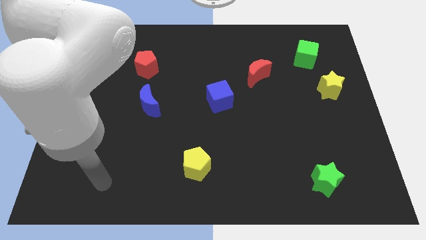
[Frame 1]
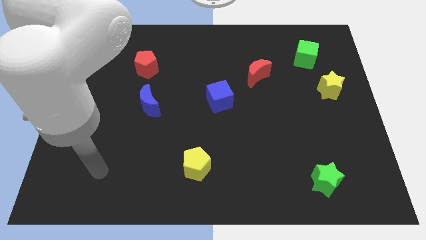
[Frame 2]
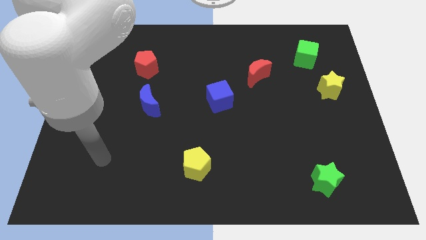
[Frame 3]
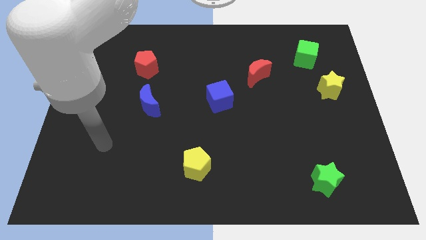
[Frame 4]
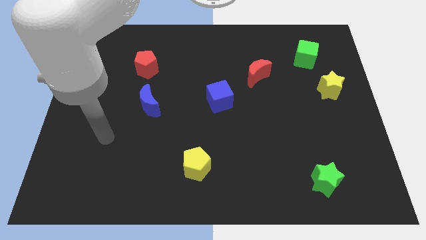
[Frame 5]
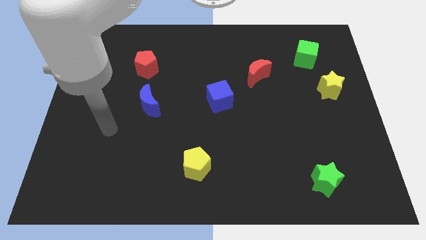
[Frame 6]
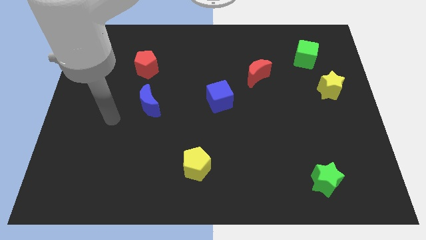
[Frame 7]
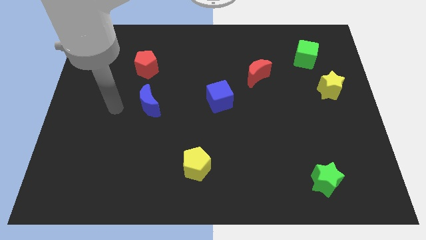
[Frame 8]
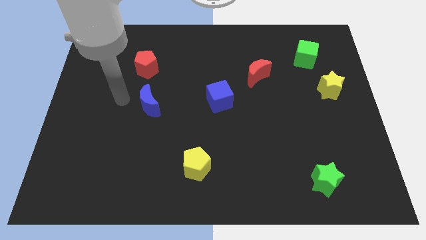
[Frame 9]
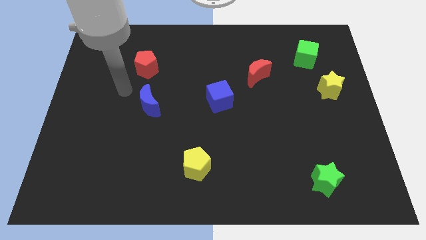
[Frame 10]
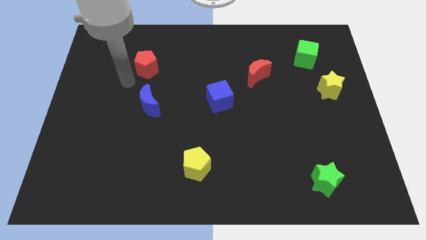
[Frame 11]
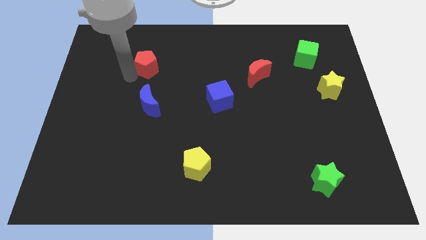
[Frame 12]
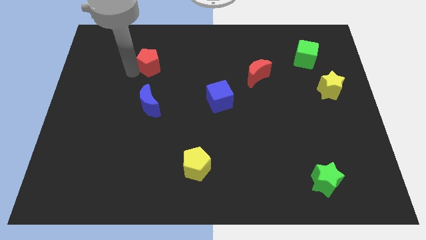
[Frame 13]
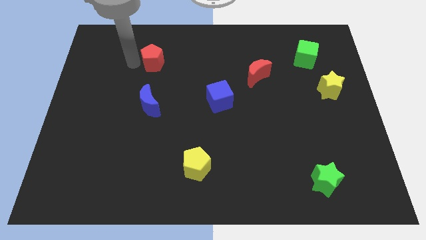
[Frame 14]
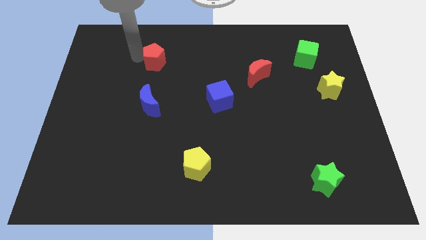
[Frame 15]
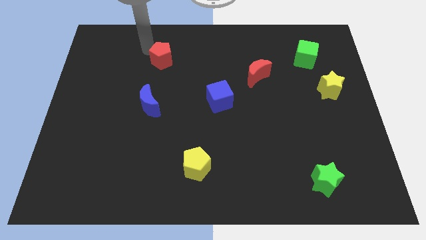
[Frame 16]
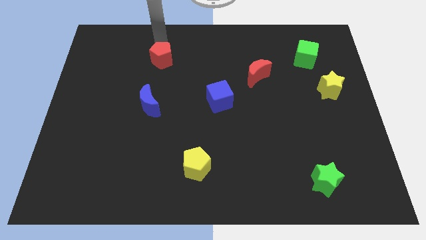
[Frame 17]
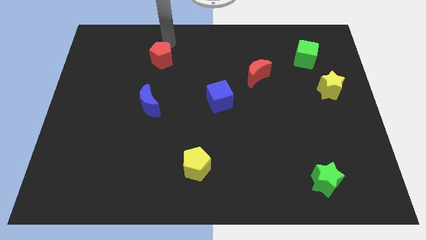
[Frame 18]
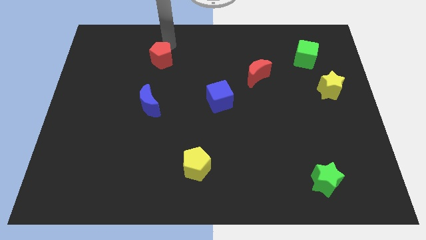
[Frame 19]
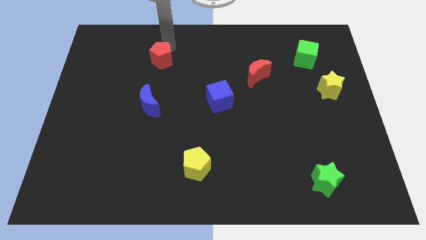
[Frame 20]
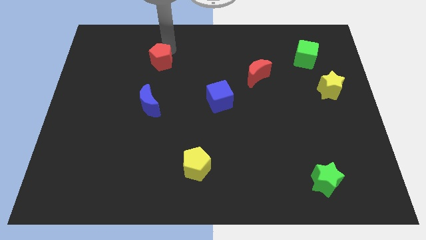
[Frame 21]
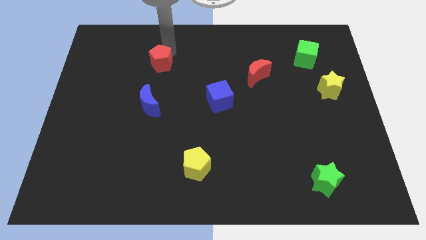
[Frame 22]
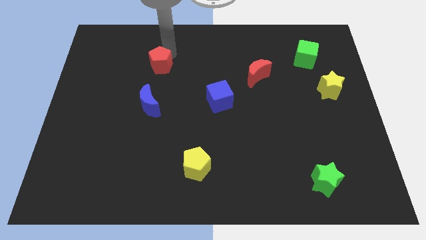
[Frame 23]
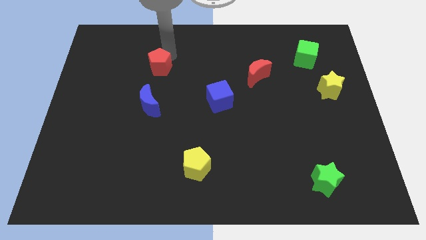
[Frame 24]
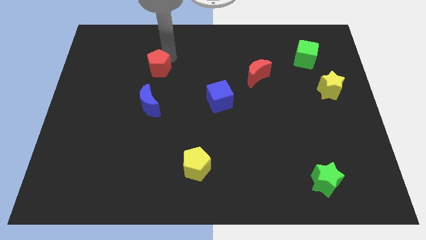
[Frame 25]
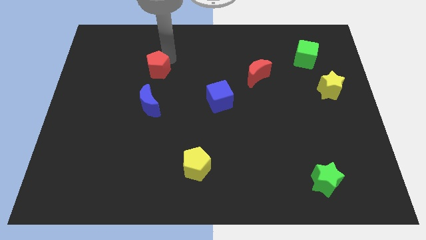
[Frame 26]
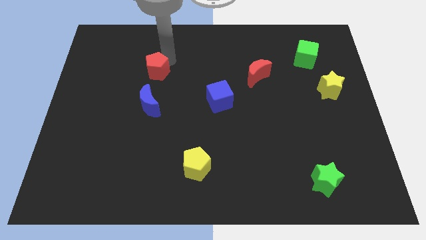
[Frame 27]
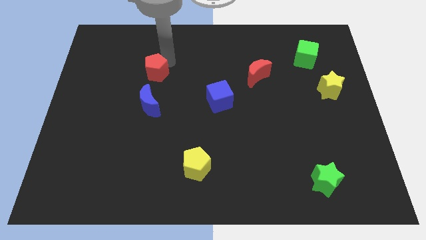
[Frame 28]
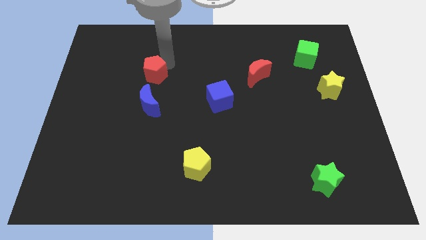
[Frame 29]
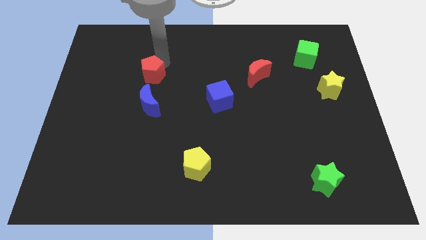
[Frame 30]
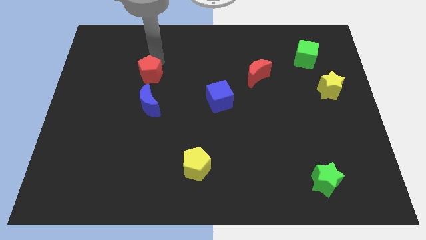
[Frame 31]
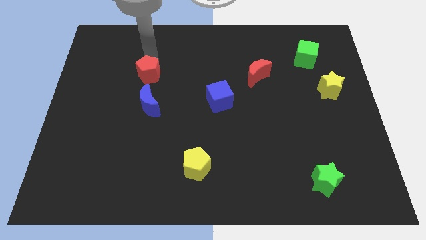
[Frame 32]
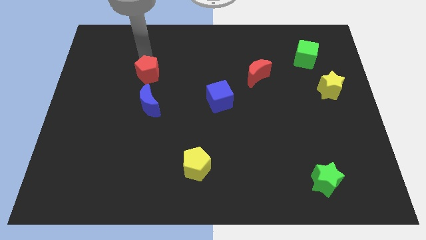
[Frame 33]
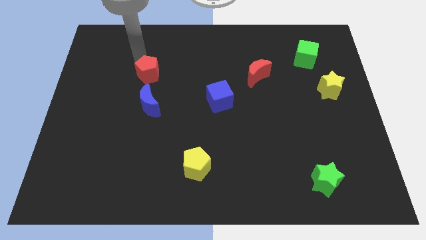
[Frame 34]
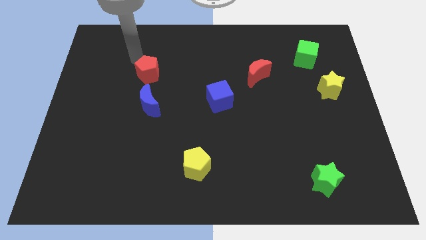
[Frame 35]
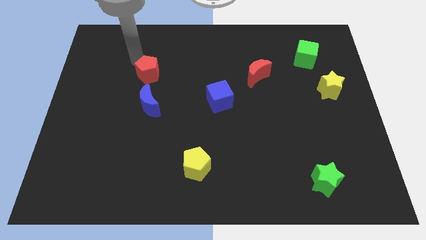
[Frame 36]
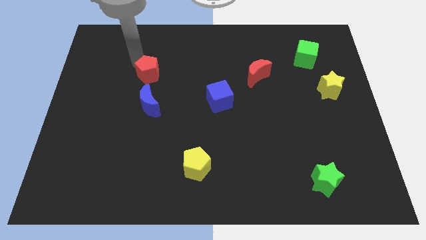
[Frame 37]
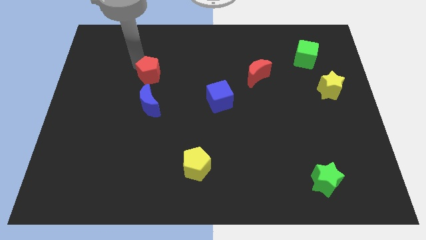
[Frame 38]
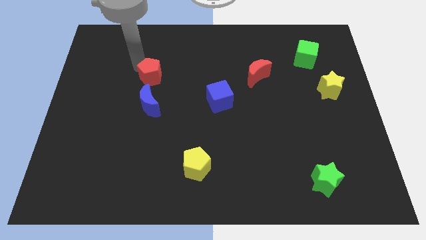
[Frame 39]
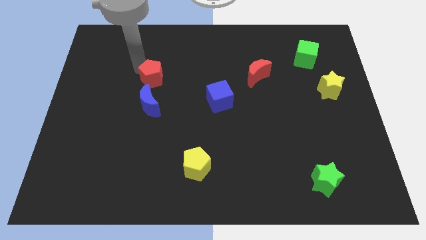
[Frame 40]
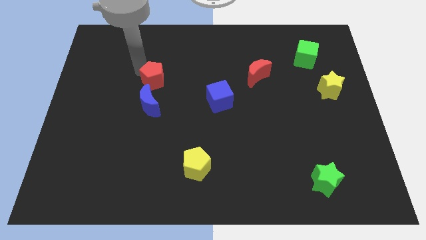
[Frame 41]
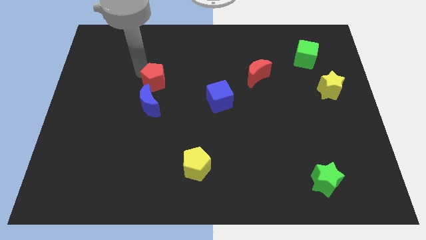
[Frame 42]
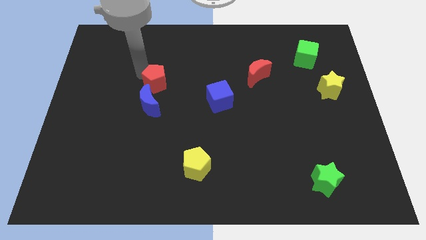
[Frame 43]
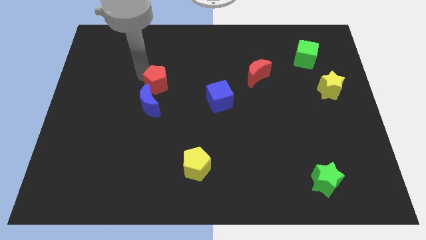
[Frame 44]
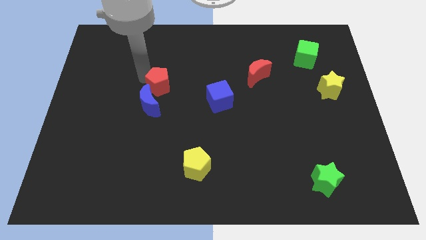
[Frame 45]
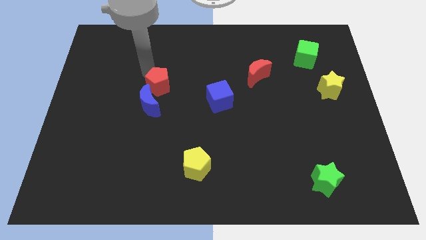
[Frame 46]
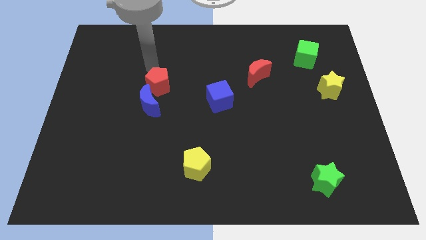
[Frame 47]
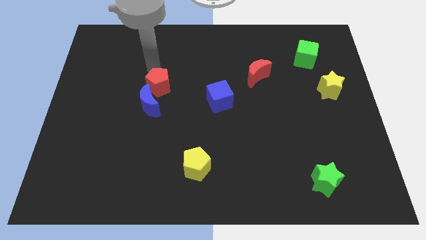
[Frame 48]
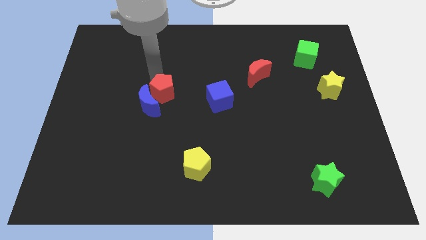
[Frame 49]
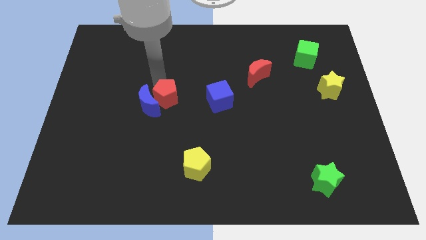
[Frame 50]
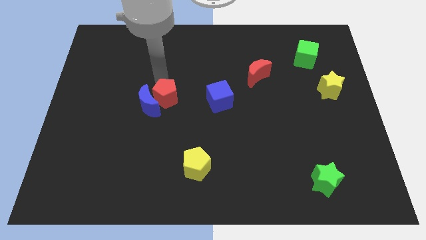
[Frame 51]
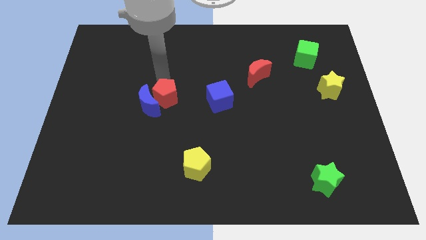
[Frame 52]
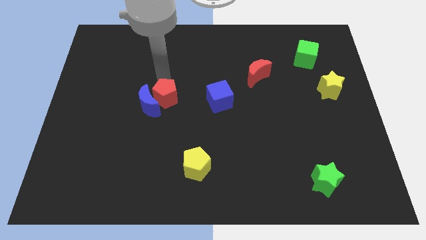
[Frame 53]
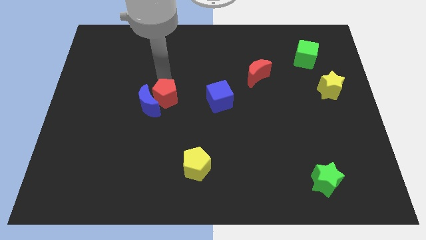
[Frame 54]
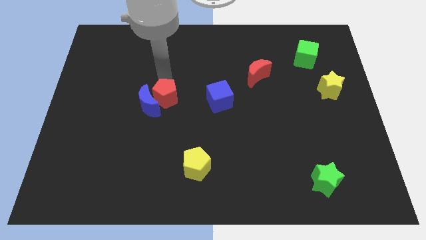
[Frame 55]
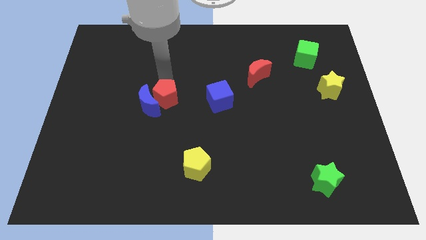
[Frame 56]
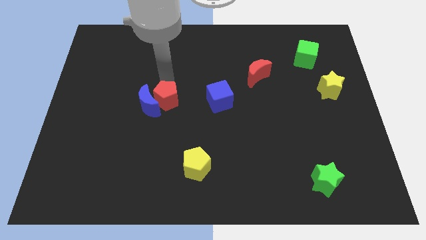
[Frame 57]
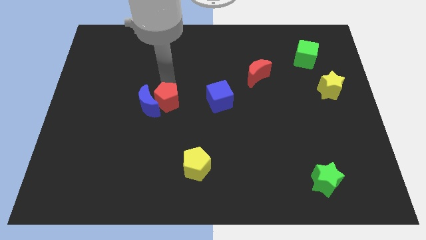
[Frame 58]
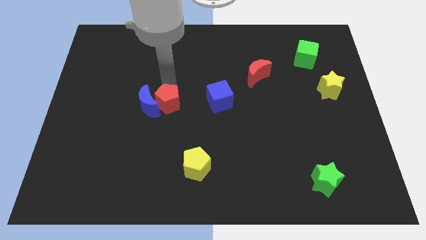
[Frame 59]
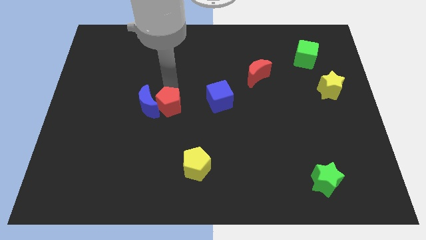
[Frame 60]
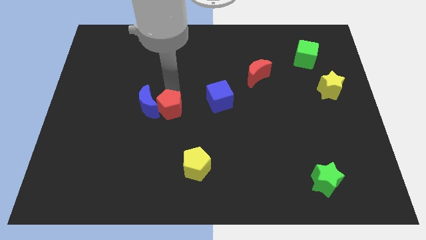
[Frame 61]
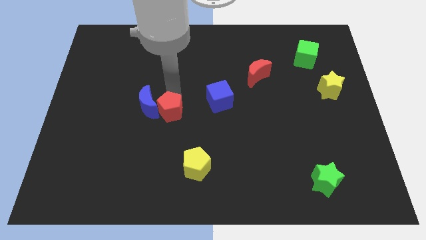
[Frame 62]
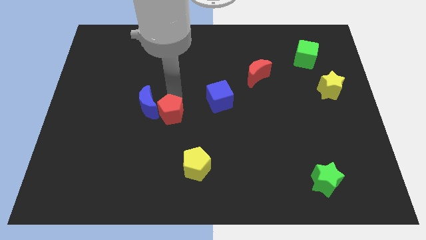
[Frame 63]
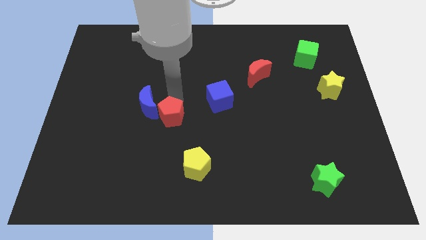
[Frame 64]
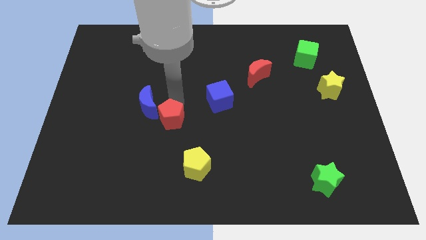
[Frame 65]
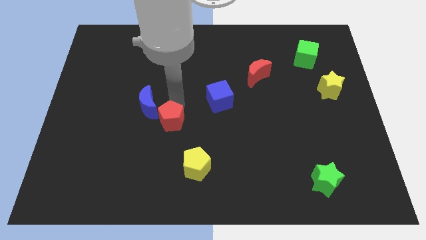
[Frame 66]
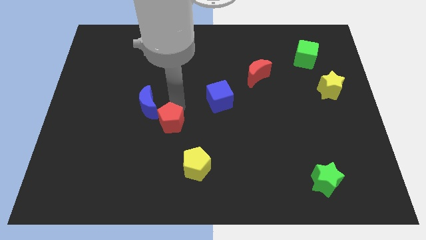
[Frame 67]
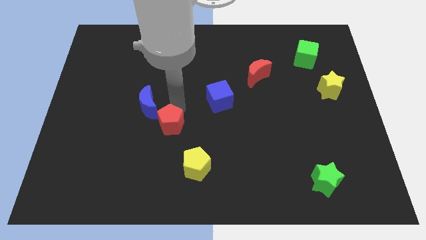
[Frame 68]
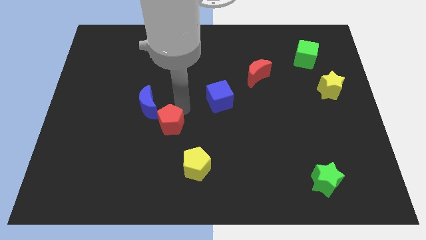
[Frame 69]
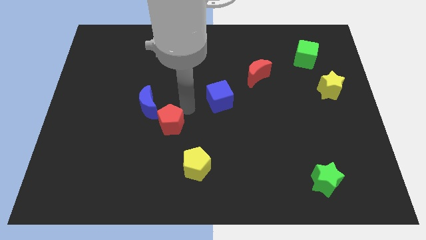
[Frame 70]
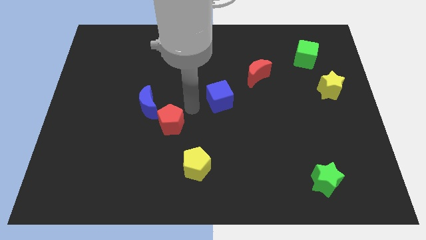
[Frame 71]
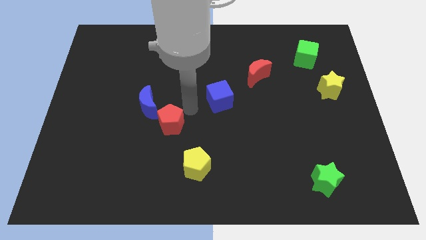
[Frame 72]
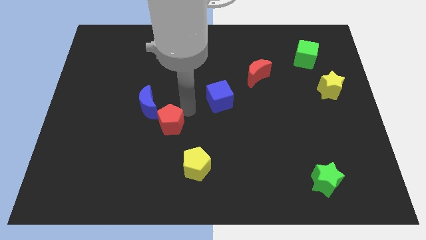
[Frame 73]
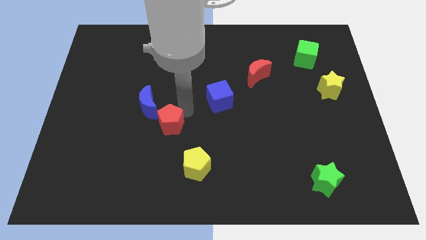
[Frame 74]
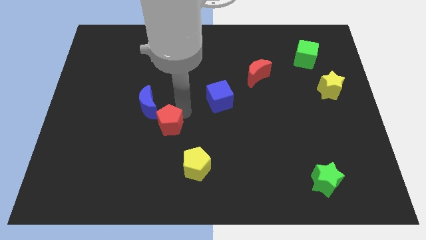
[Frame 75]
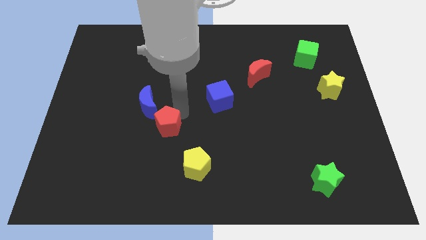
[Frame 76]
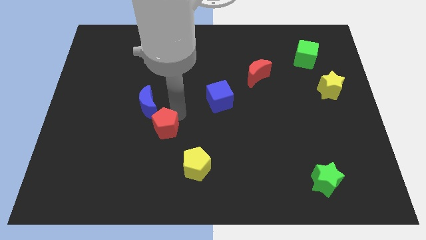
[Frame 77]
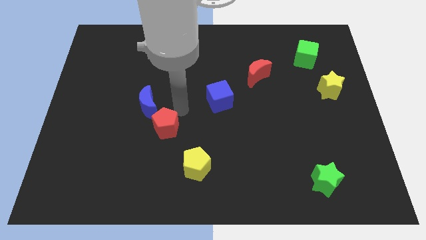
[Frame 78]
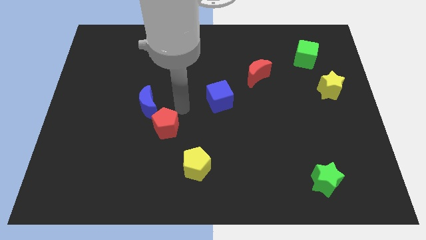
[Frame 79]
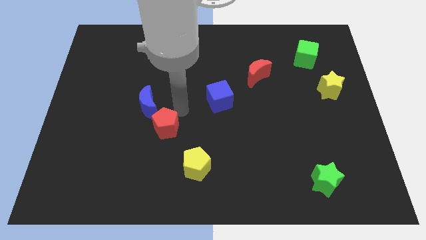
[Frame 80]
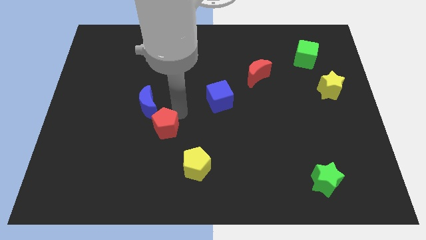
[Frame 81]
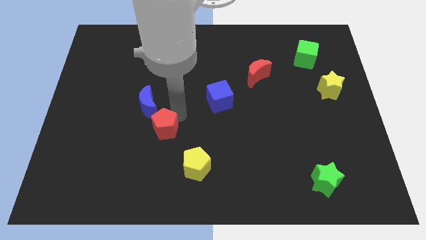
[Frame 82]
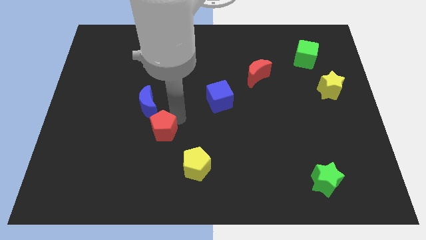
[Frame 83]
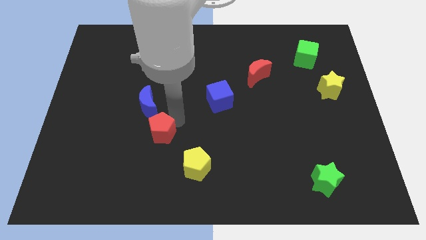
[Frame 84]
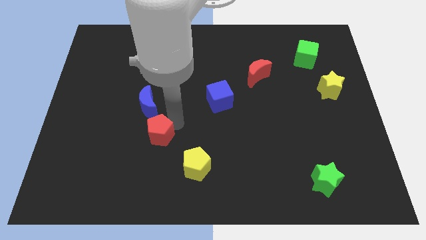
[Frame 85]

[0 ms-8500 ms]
slide the red pentagon downwards
